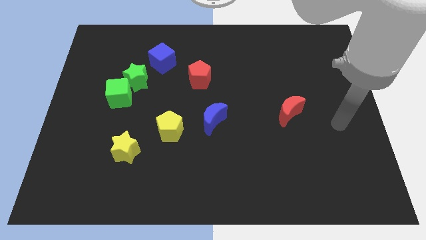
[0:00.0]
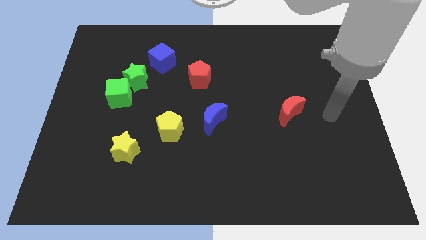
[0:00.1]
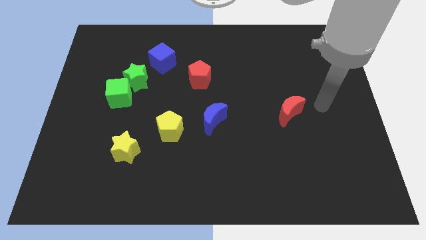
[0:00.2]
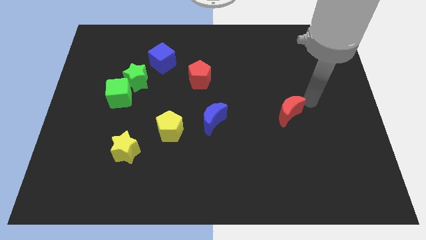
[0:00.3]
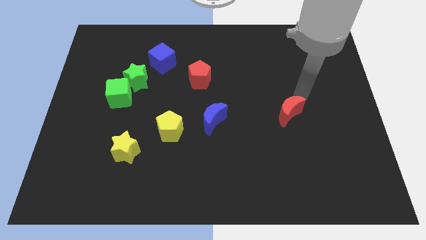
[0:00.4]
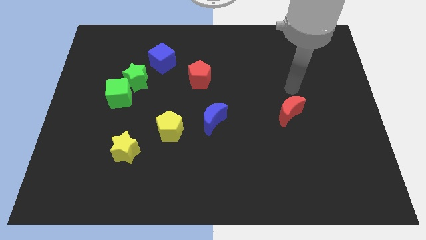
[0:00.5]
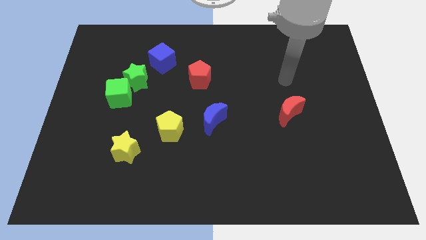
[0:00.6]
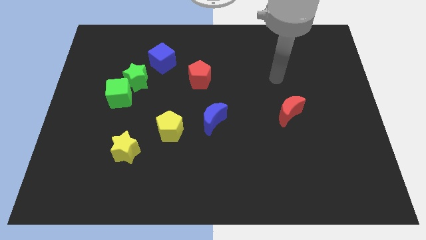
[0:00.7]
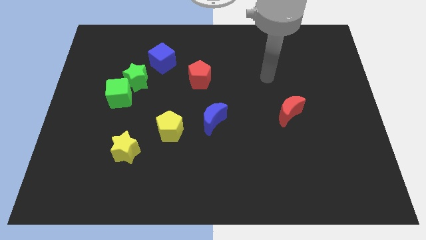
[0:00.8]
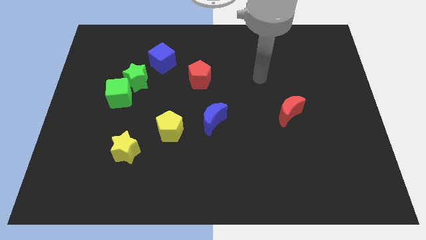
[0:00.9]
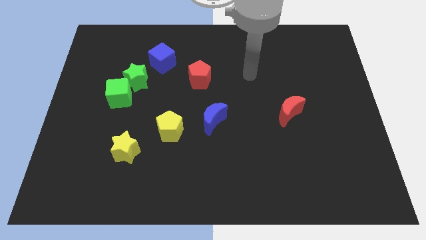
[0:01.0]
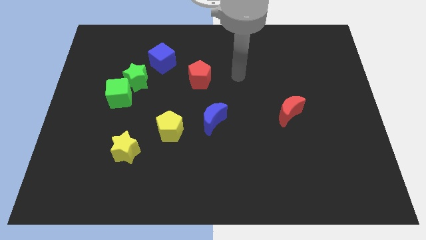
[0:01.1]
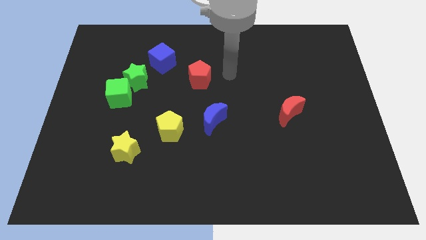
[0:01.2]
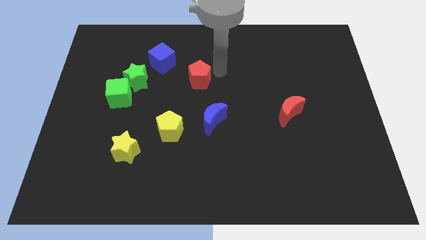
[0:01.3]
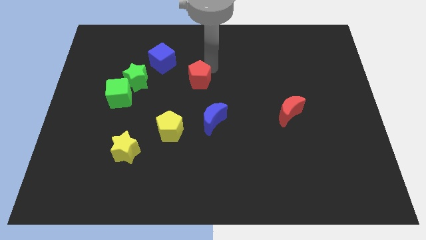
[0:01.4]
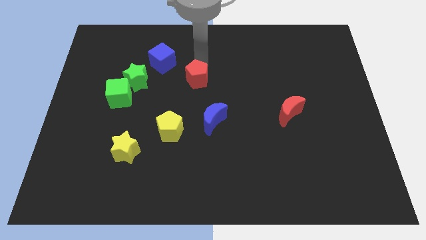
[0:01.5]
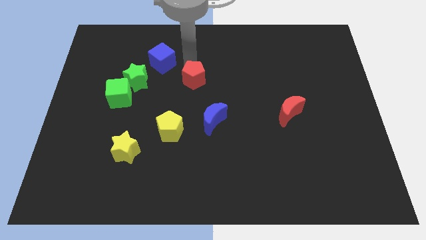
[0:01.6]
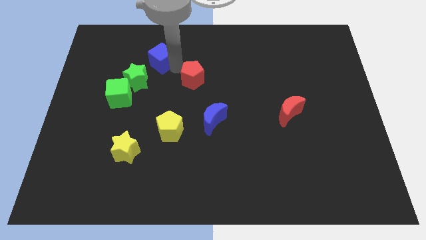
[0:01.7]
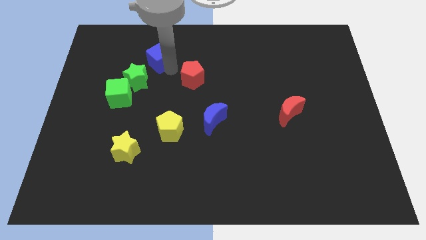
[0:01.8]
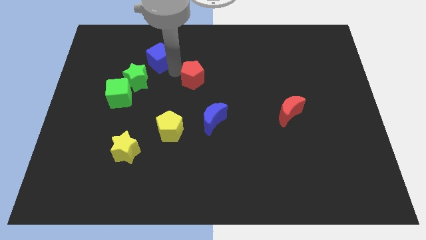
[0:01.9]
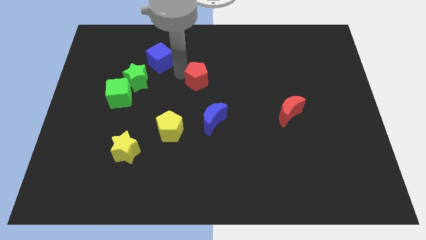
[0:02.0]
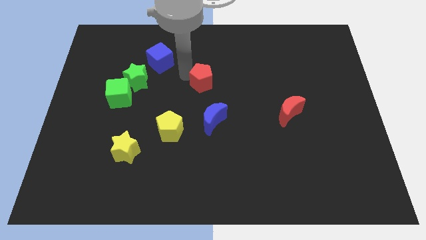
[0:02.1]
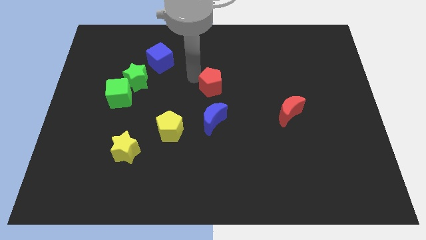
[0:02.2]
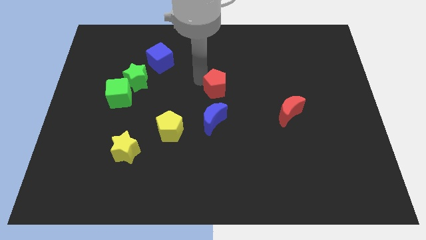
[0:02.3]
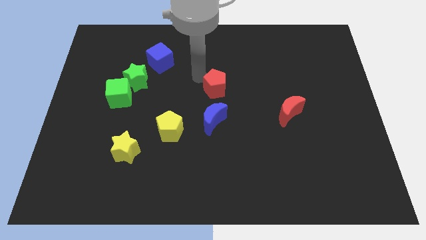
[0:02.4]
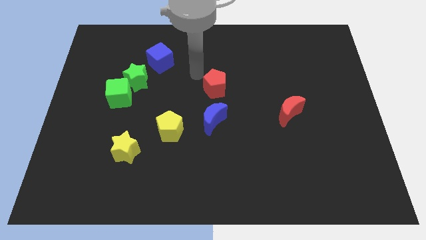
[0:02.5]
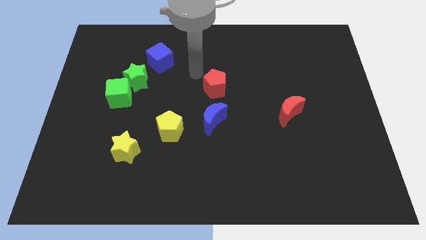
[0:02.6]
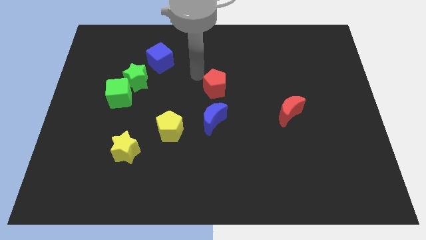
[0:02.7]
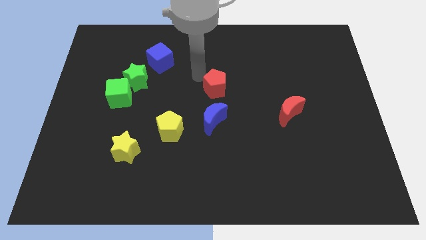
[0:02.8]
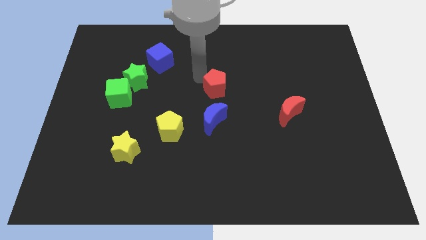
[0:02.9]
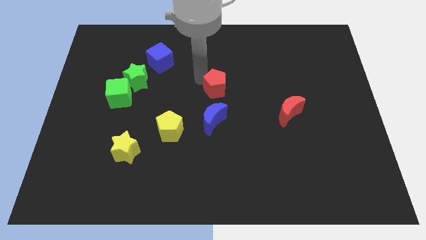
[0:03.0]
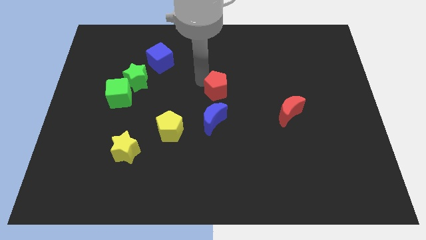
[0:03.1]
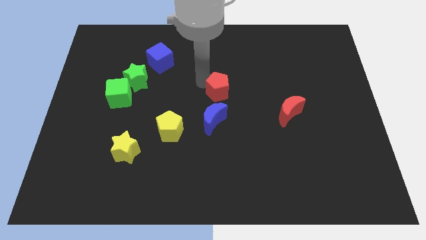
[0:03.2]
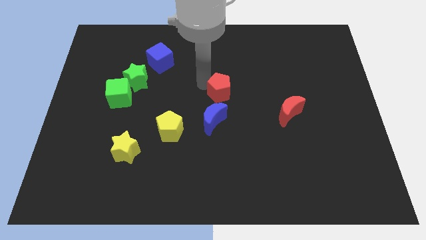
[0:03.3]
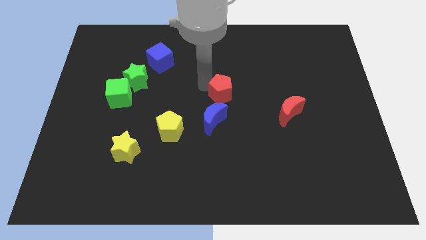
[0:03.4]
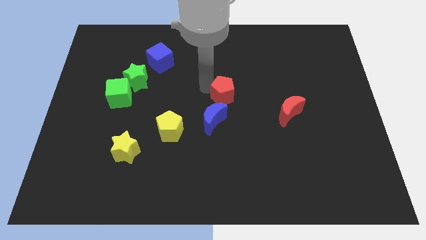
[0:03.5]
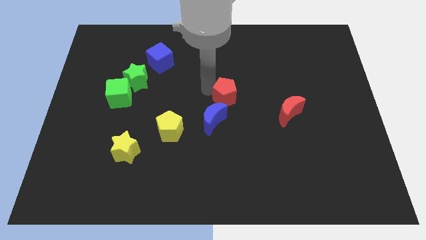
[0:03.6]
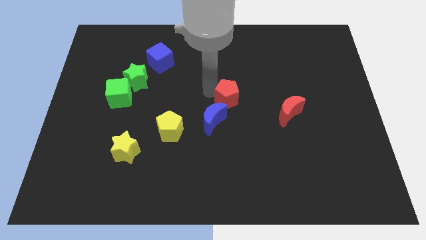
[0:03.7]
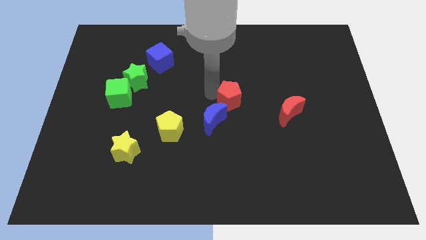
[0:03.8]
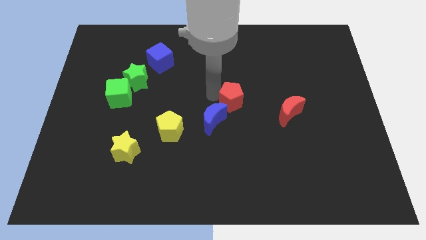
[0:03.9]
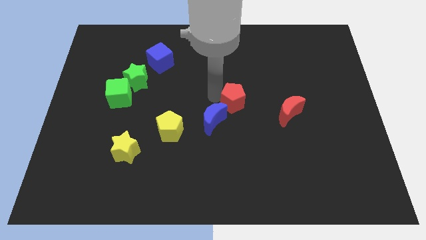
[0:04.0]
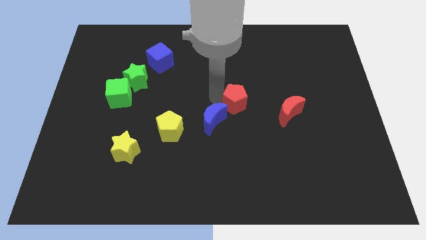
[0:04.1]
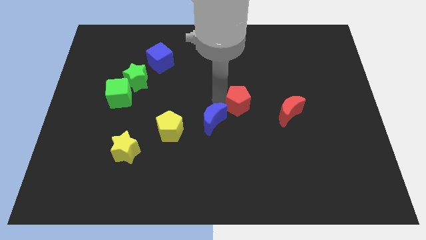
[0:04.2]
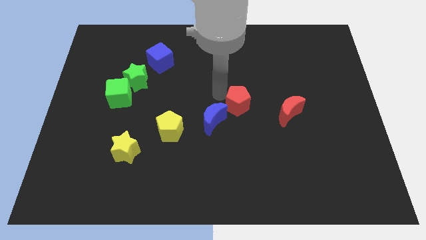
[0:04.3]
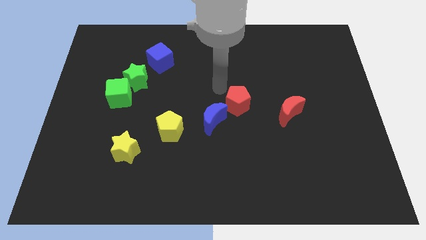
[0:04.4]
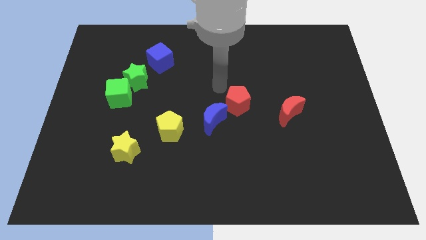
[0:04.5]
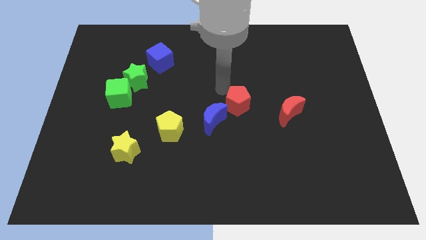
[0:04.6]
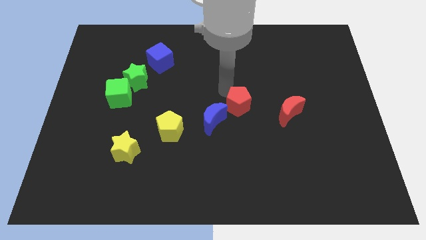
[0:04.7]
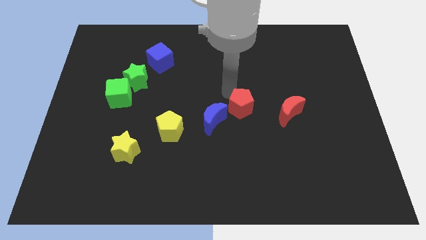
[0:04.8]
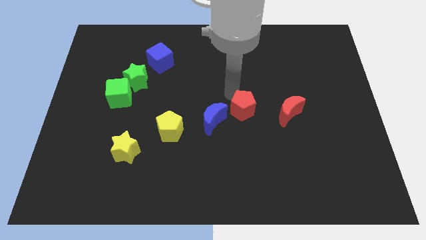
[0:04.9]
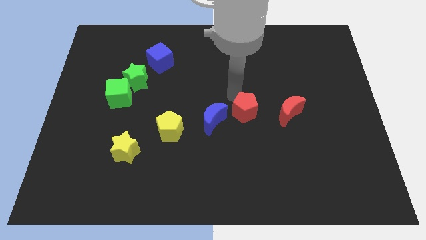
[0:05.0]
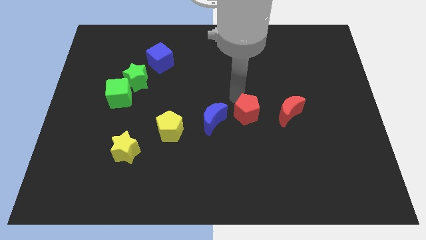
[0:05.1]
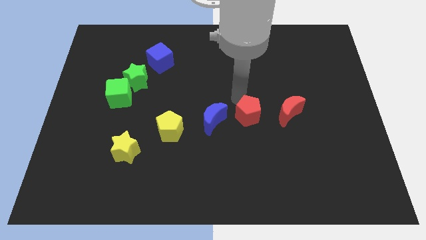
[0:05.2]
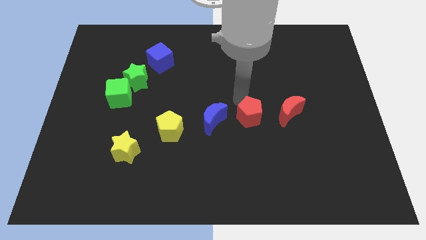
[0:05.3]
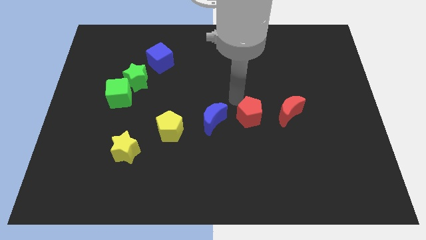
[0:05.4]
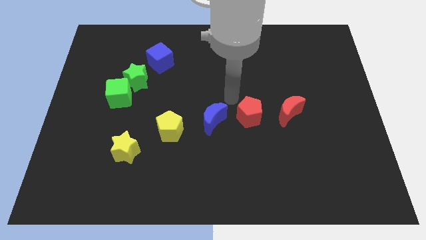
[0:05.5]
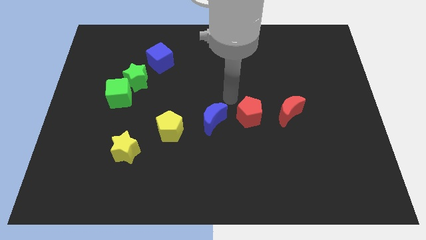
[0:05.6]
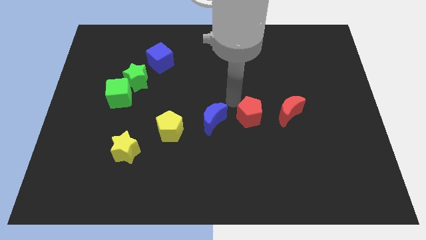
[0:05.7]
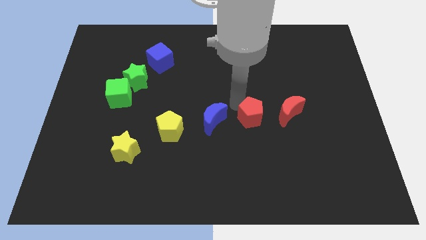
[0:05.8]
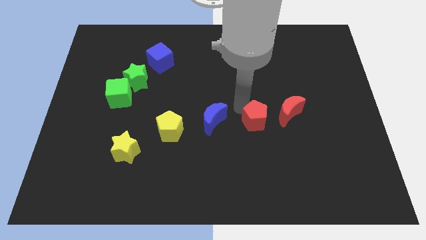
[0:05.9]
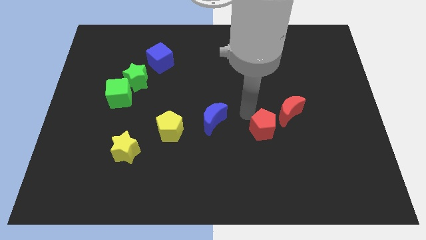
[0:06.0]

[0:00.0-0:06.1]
move the red pentagon diagonally down and right

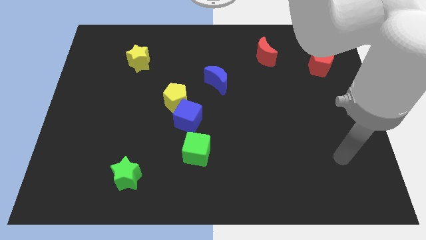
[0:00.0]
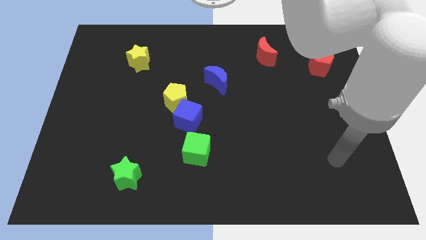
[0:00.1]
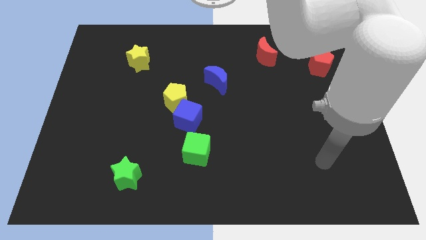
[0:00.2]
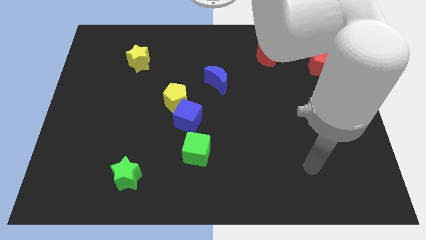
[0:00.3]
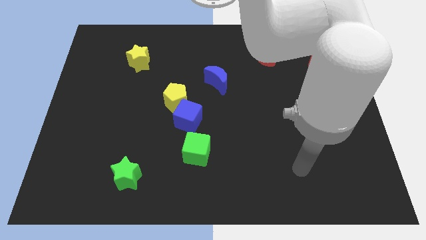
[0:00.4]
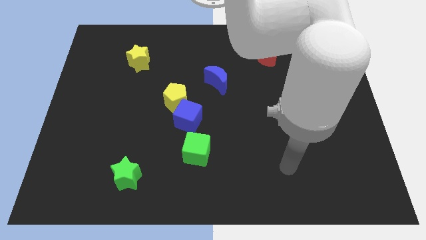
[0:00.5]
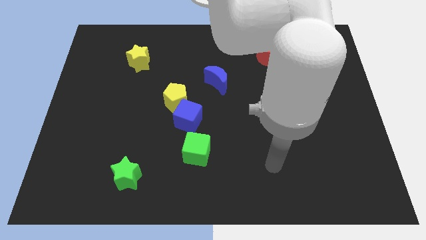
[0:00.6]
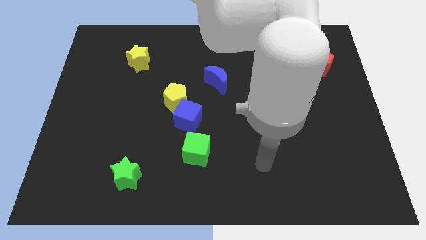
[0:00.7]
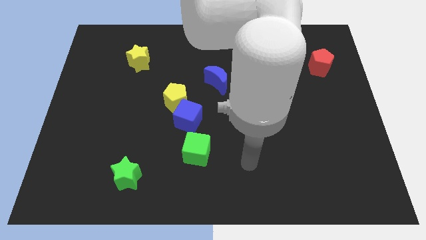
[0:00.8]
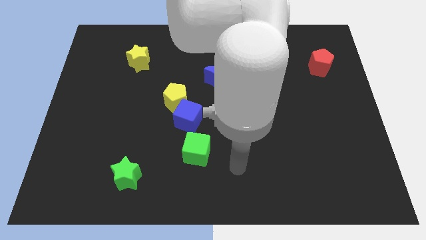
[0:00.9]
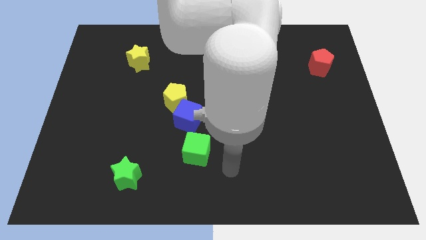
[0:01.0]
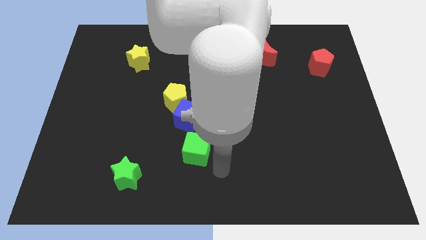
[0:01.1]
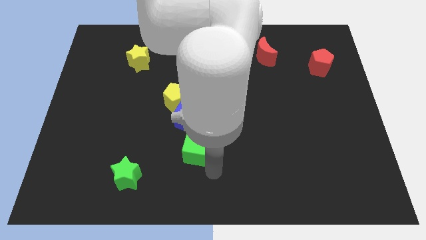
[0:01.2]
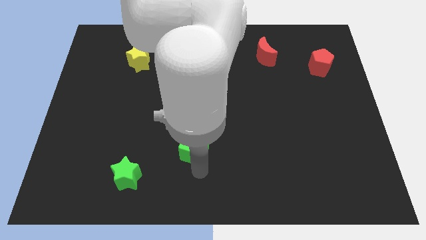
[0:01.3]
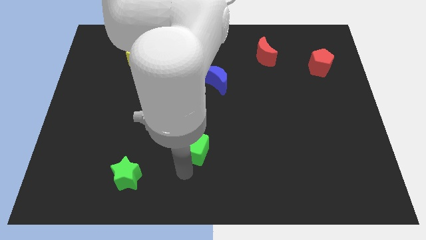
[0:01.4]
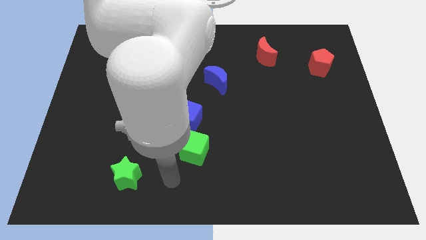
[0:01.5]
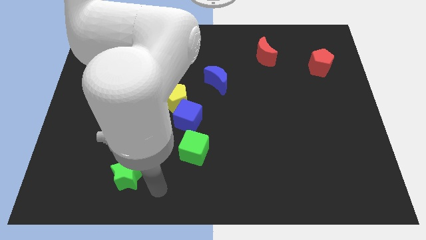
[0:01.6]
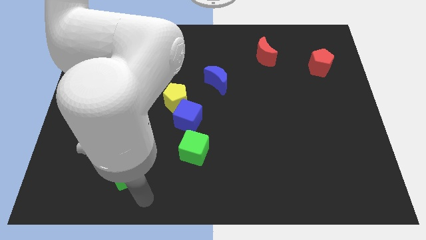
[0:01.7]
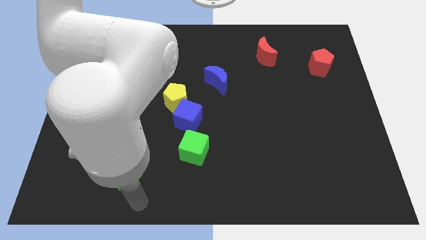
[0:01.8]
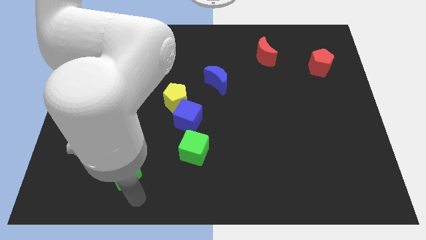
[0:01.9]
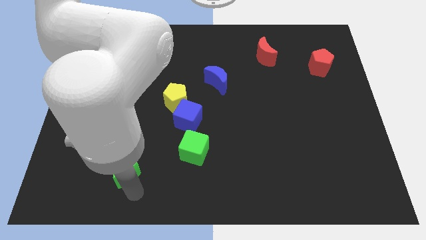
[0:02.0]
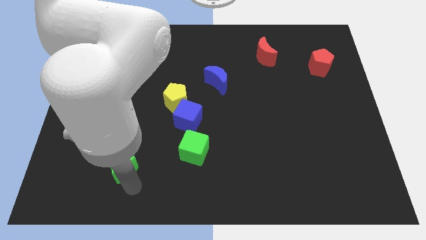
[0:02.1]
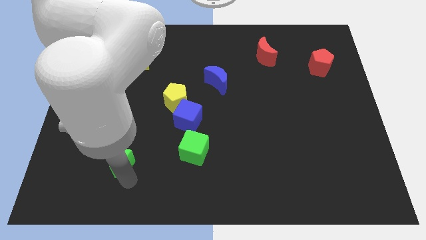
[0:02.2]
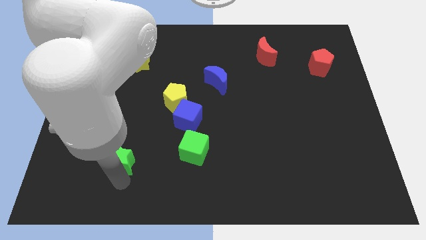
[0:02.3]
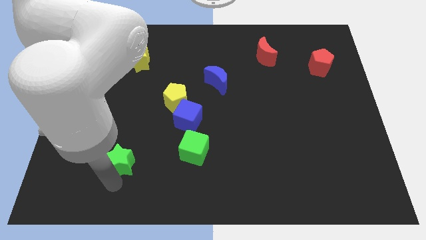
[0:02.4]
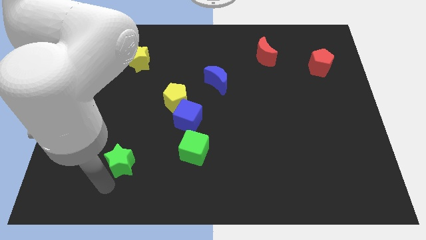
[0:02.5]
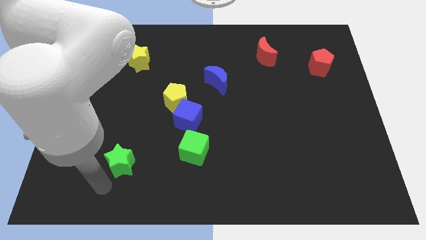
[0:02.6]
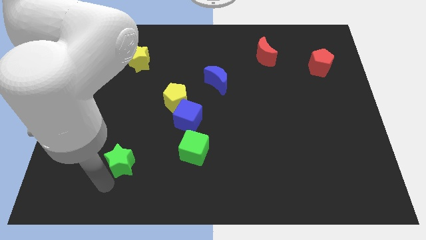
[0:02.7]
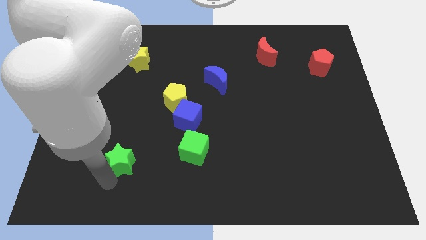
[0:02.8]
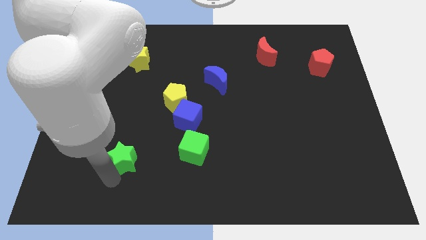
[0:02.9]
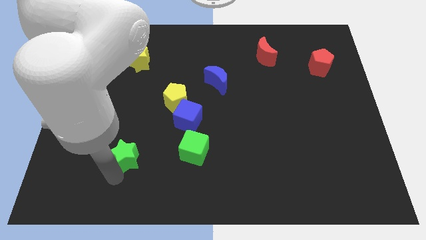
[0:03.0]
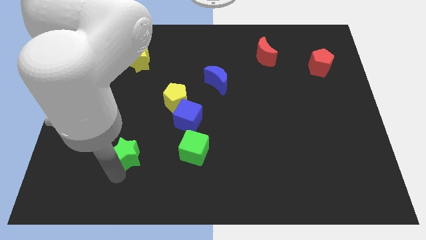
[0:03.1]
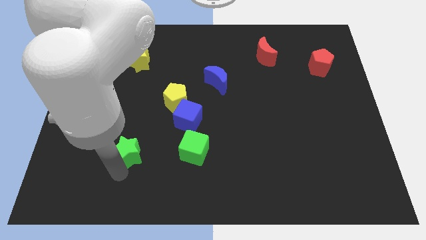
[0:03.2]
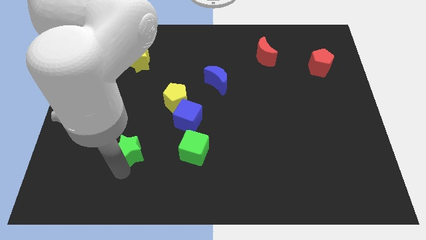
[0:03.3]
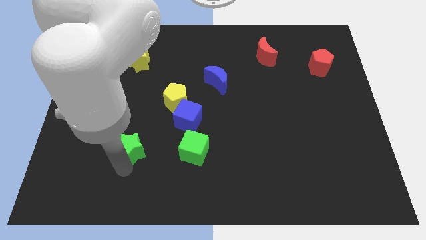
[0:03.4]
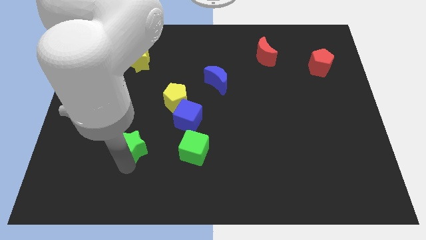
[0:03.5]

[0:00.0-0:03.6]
slightly push the green star up
